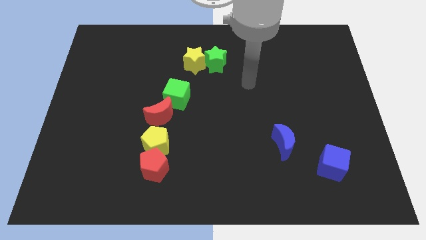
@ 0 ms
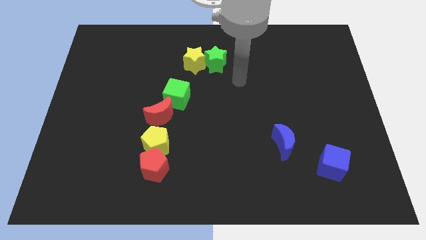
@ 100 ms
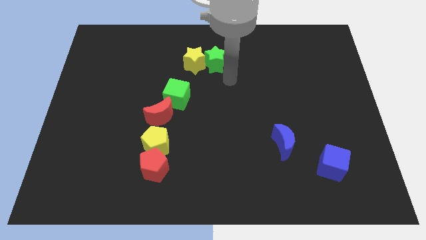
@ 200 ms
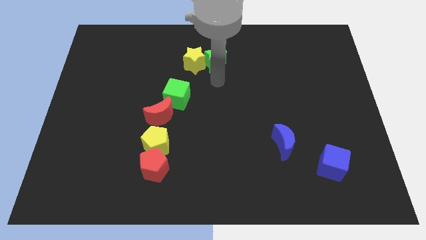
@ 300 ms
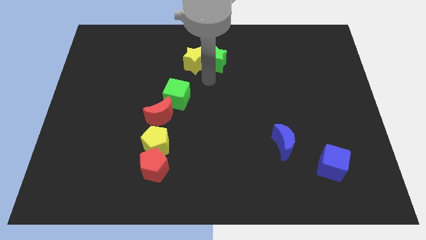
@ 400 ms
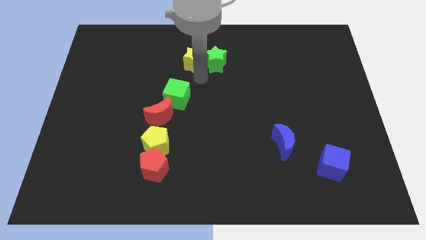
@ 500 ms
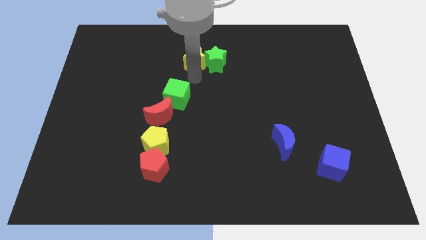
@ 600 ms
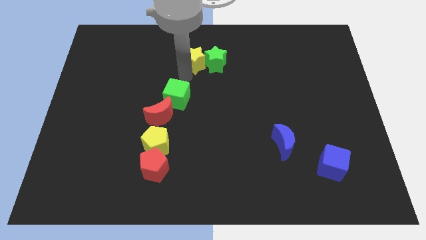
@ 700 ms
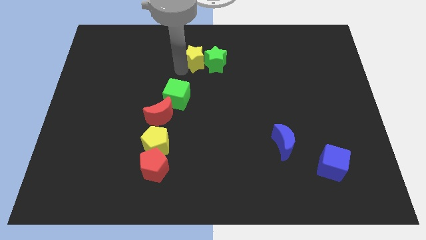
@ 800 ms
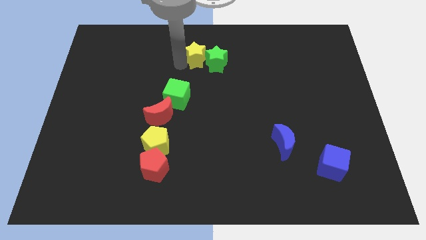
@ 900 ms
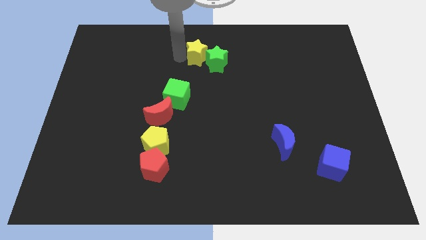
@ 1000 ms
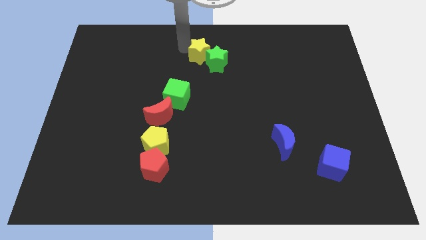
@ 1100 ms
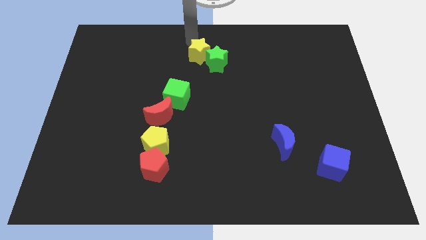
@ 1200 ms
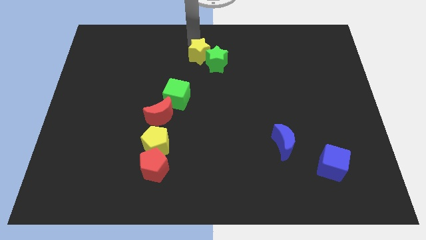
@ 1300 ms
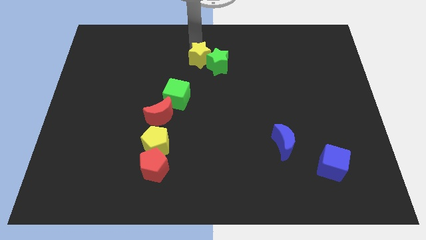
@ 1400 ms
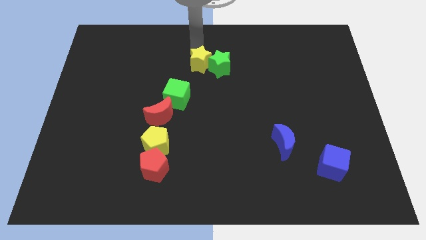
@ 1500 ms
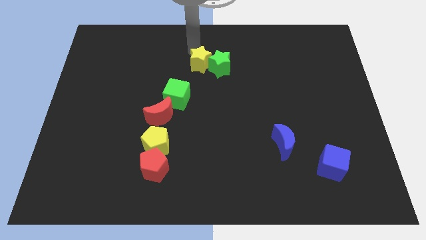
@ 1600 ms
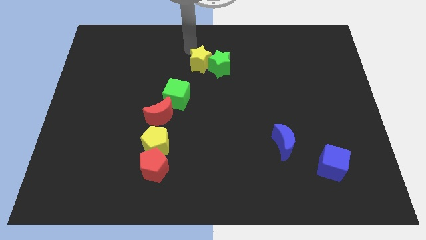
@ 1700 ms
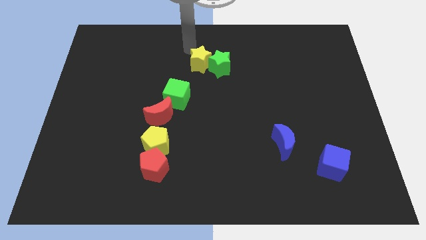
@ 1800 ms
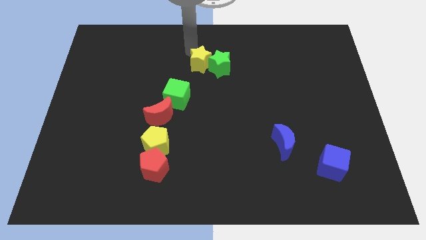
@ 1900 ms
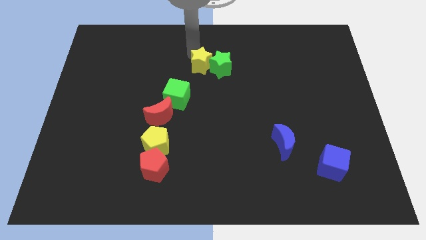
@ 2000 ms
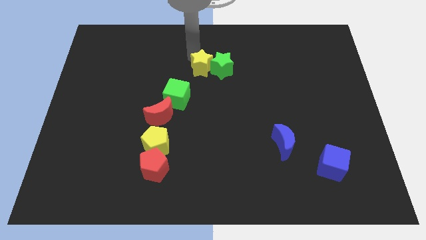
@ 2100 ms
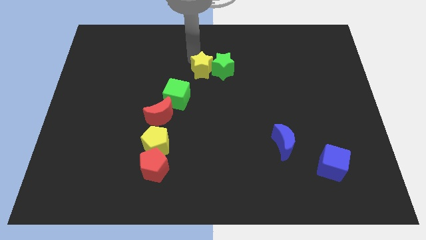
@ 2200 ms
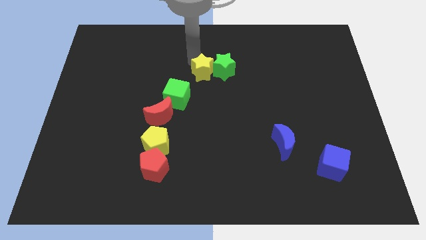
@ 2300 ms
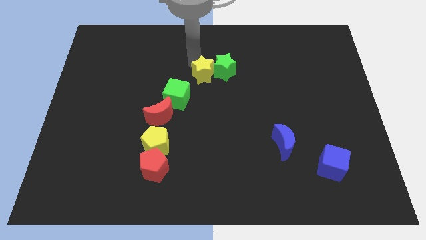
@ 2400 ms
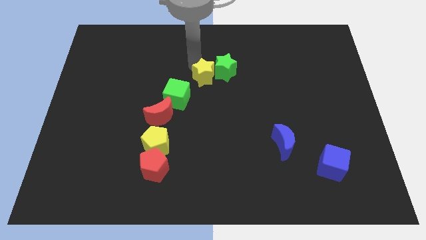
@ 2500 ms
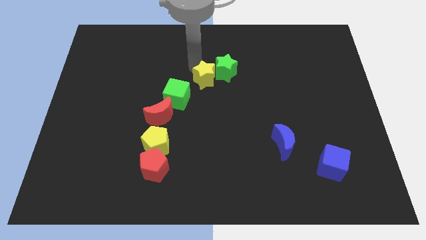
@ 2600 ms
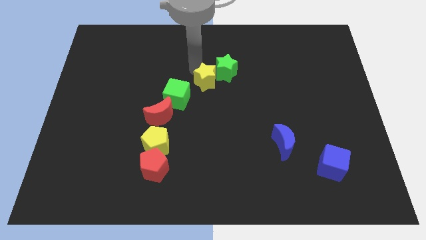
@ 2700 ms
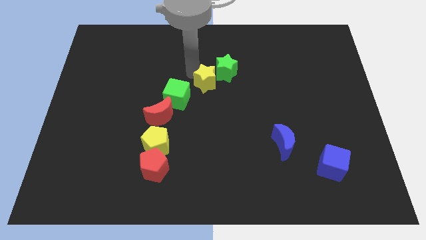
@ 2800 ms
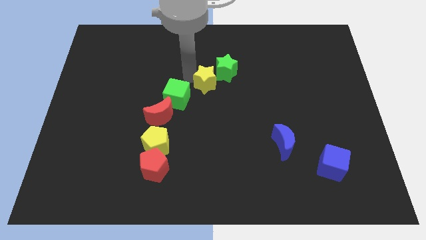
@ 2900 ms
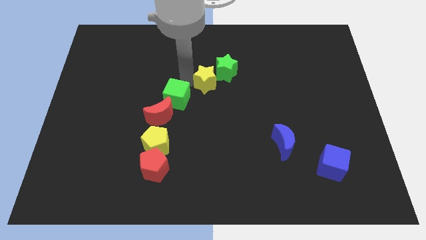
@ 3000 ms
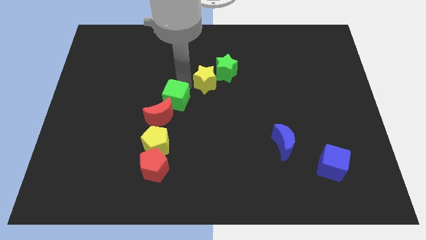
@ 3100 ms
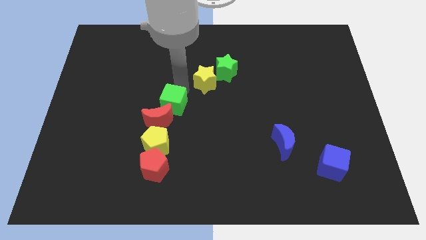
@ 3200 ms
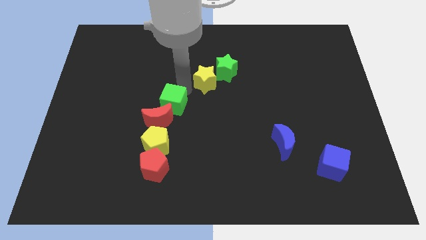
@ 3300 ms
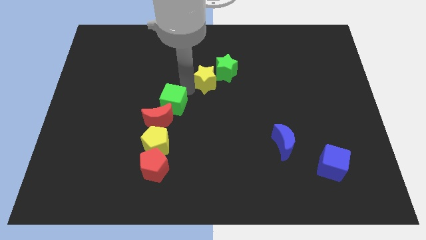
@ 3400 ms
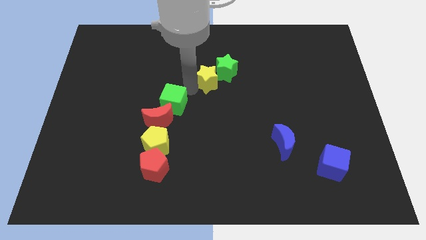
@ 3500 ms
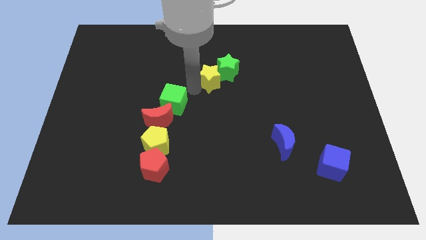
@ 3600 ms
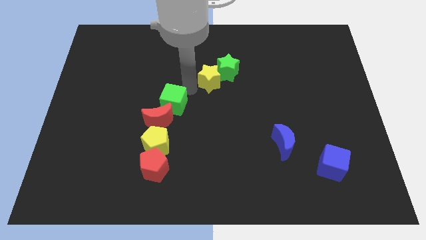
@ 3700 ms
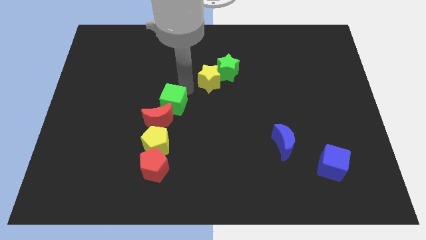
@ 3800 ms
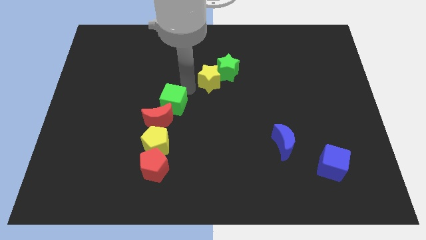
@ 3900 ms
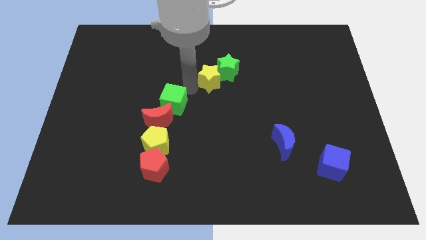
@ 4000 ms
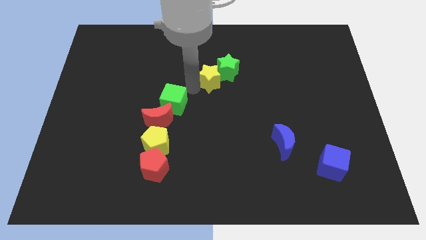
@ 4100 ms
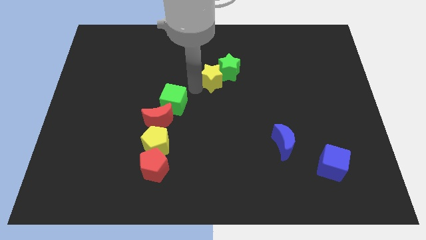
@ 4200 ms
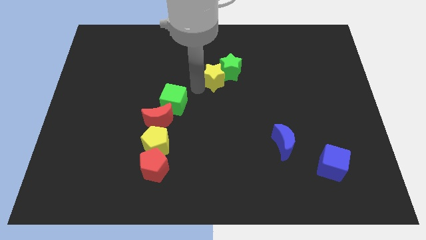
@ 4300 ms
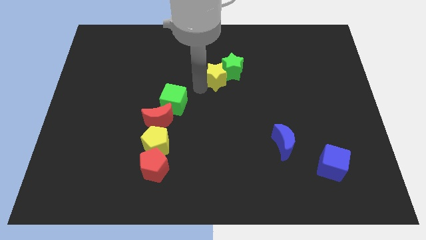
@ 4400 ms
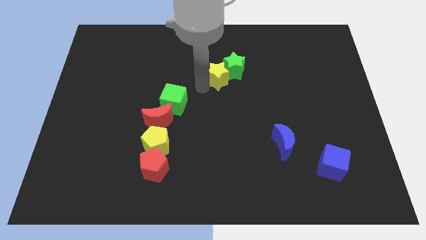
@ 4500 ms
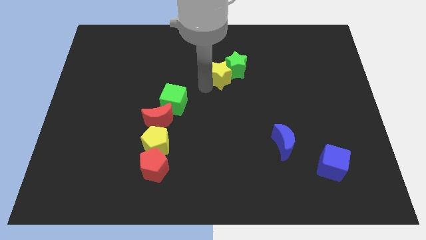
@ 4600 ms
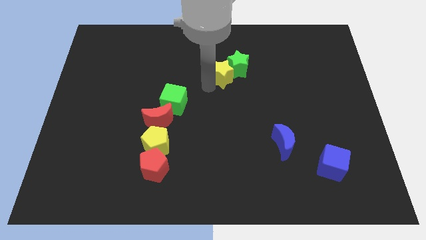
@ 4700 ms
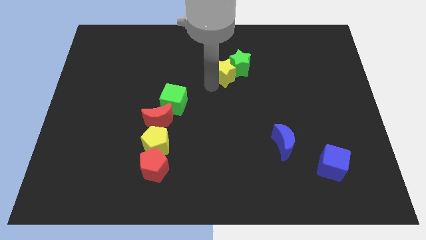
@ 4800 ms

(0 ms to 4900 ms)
slightly slide the yellow star to the right

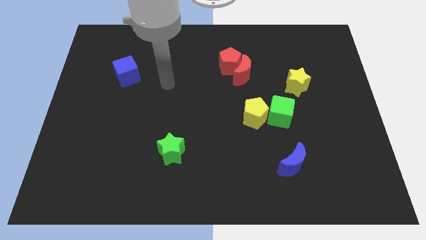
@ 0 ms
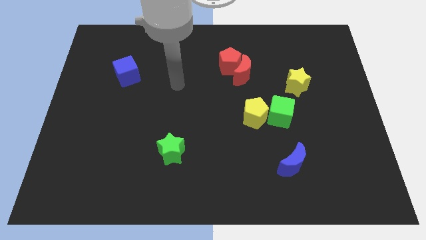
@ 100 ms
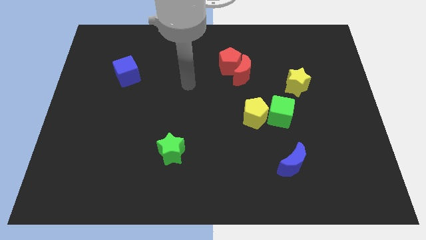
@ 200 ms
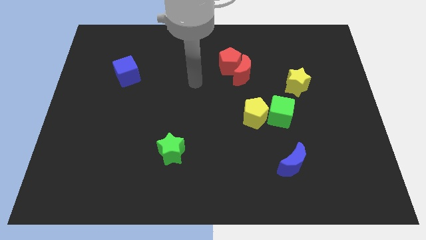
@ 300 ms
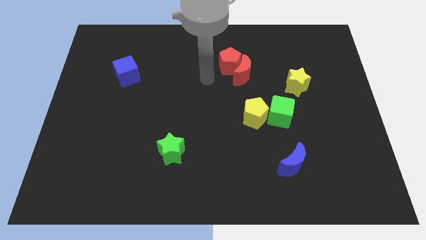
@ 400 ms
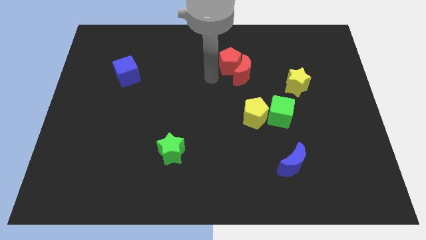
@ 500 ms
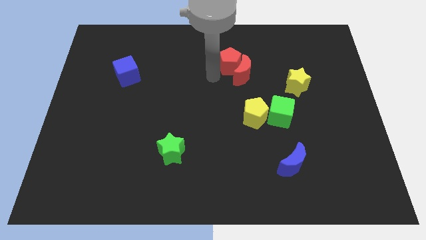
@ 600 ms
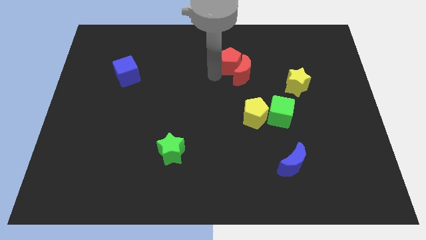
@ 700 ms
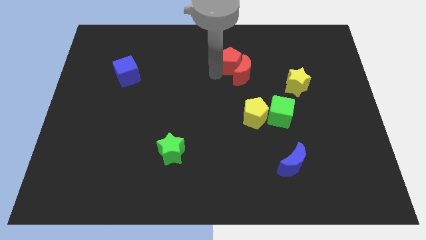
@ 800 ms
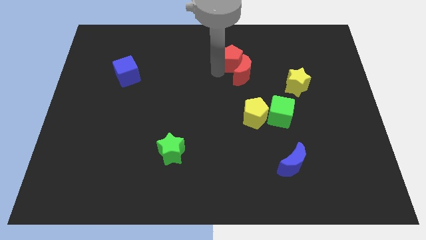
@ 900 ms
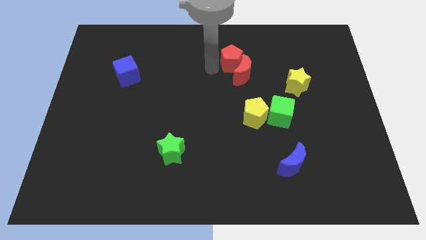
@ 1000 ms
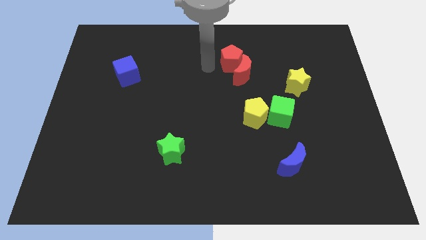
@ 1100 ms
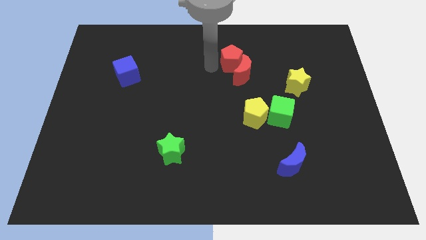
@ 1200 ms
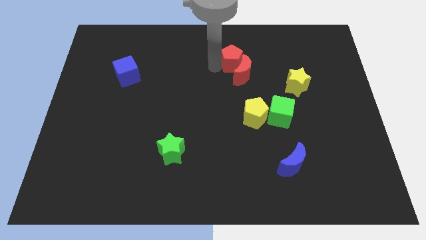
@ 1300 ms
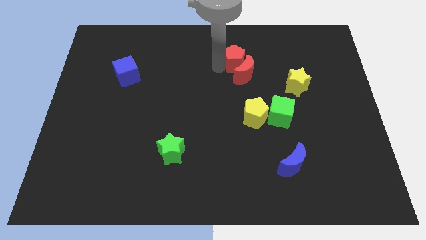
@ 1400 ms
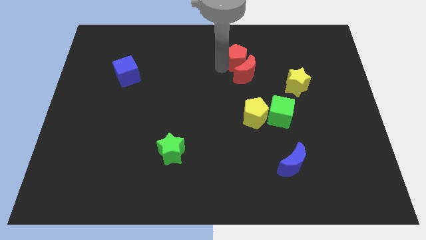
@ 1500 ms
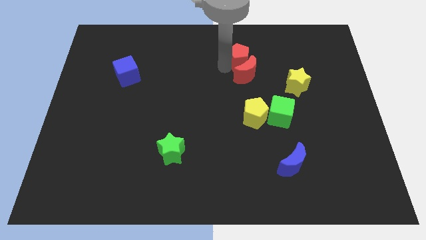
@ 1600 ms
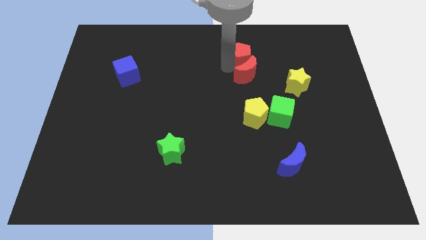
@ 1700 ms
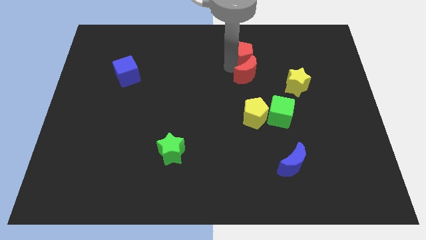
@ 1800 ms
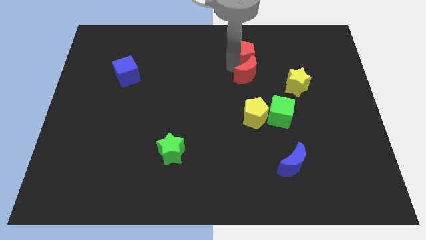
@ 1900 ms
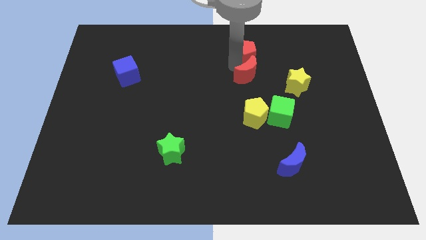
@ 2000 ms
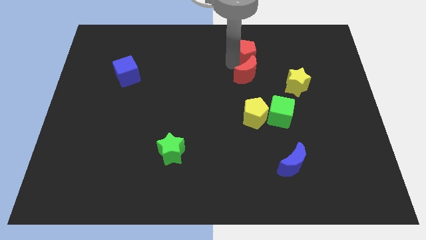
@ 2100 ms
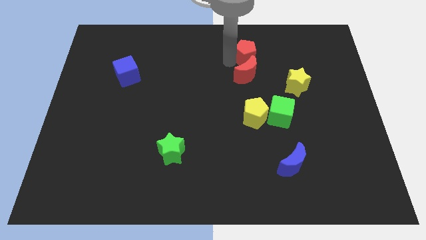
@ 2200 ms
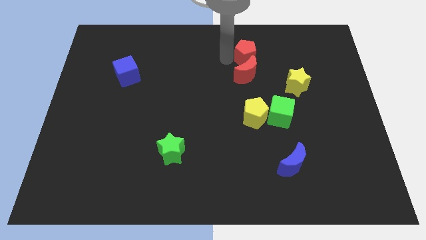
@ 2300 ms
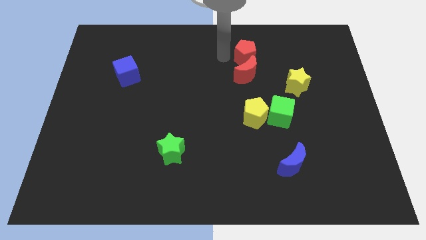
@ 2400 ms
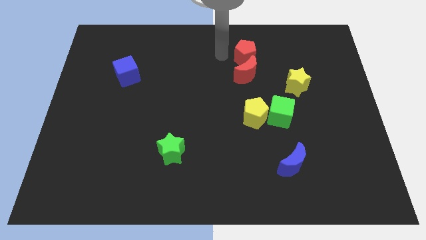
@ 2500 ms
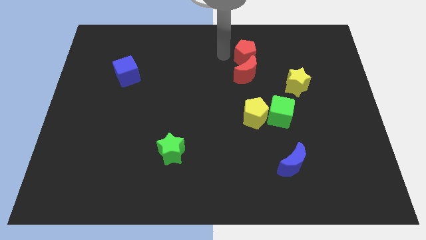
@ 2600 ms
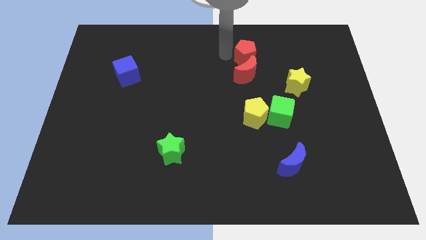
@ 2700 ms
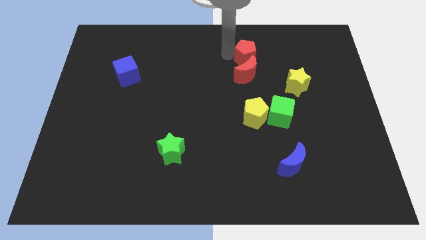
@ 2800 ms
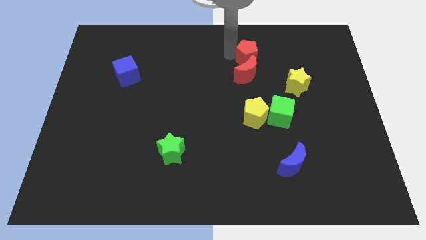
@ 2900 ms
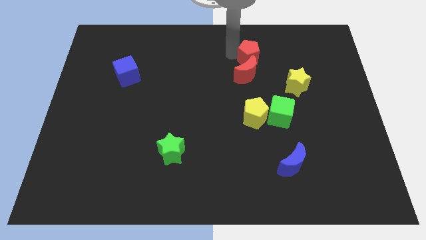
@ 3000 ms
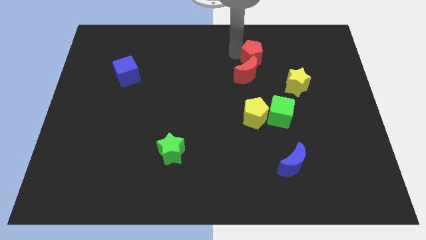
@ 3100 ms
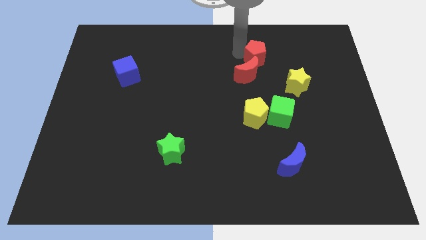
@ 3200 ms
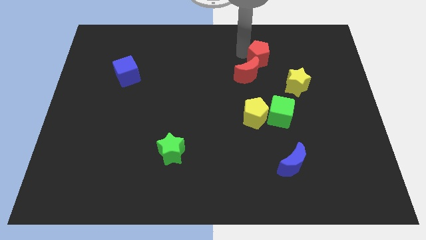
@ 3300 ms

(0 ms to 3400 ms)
slightly slide the red pentagon to the right

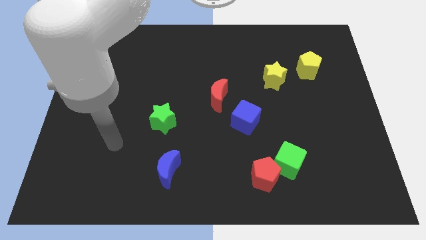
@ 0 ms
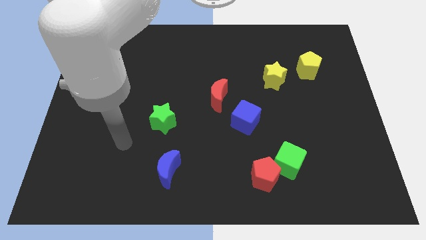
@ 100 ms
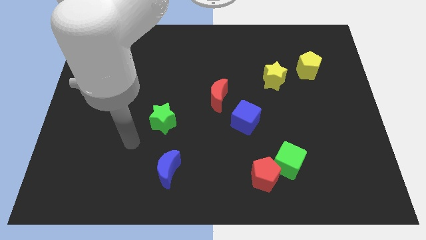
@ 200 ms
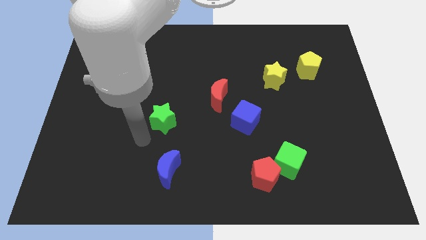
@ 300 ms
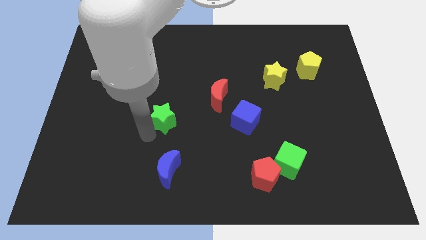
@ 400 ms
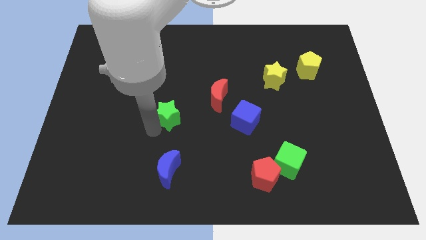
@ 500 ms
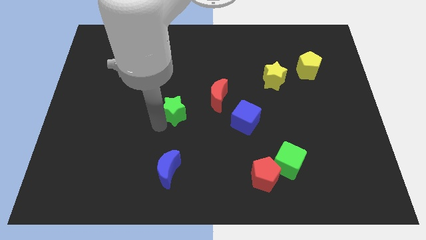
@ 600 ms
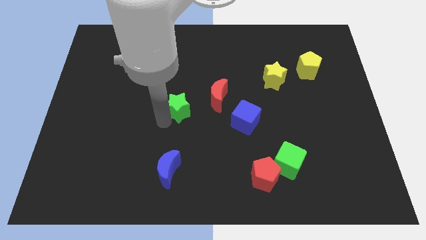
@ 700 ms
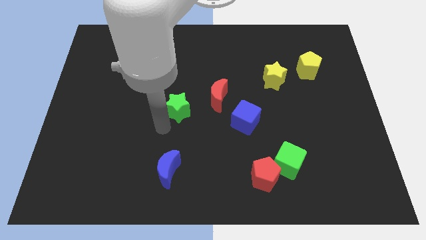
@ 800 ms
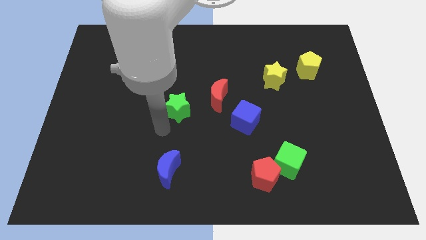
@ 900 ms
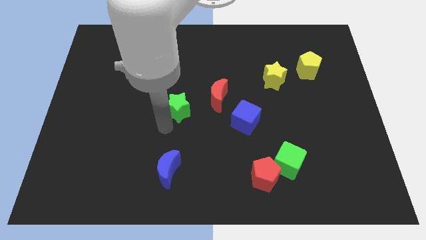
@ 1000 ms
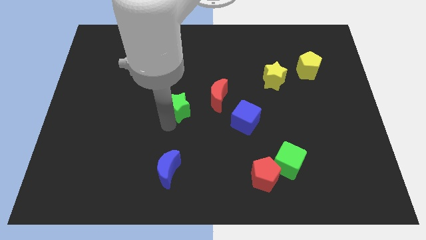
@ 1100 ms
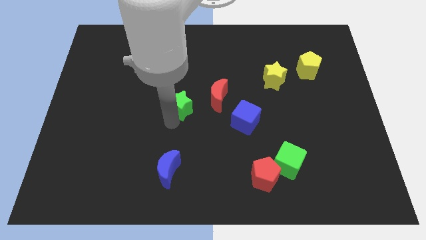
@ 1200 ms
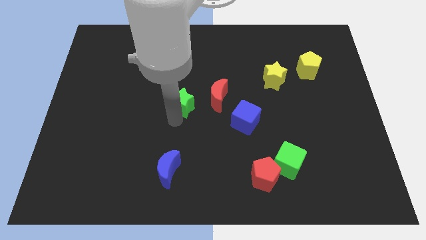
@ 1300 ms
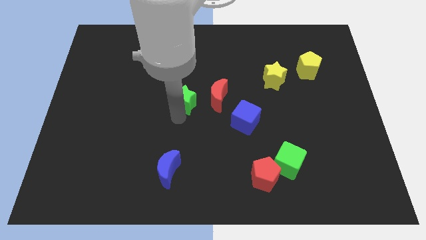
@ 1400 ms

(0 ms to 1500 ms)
slightly slide the green star up and then to the right
